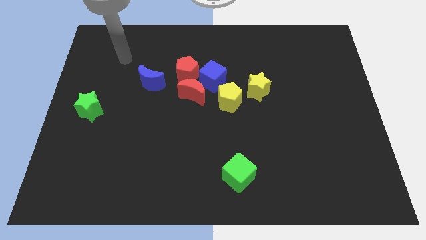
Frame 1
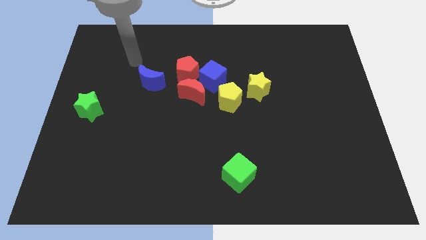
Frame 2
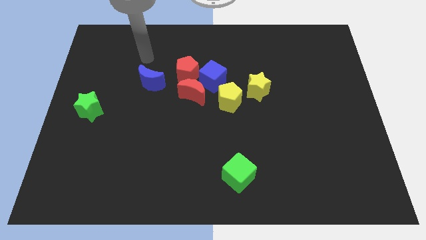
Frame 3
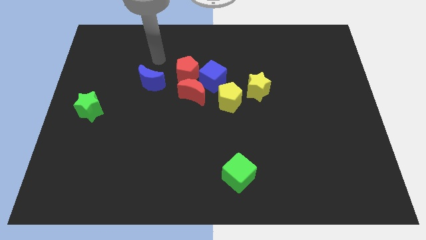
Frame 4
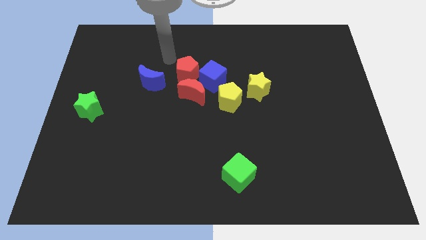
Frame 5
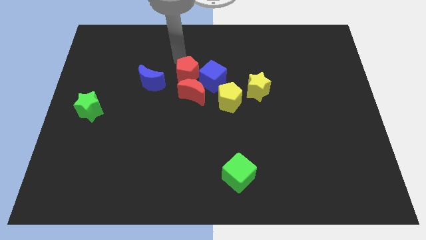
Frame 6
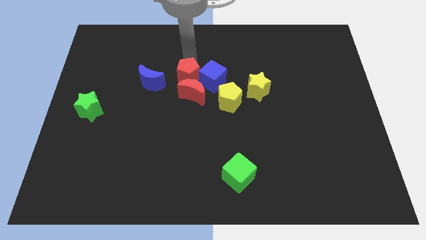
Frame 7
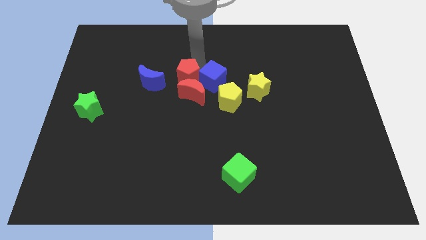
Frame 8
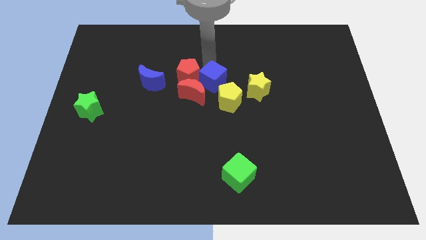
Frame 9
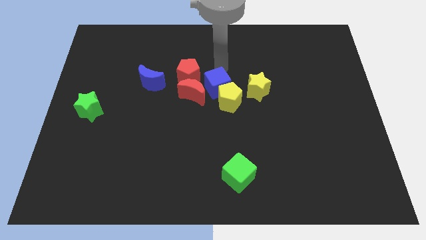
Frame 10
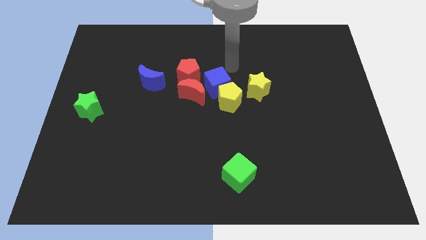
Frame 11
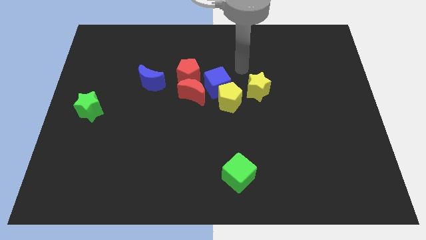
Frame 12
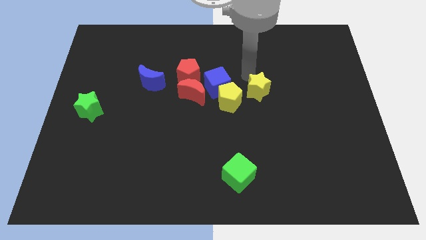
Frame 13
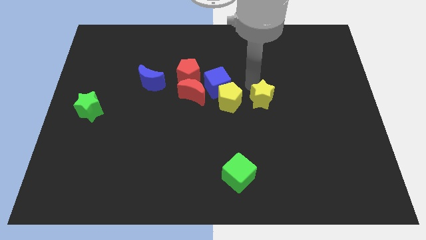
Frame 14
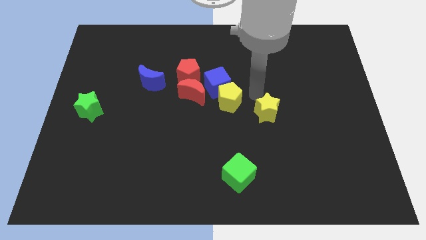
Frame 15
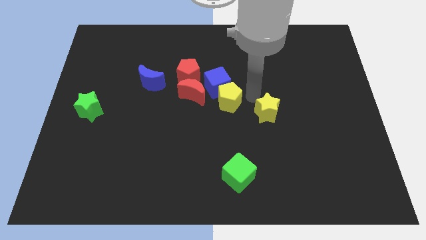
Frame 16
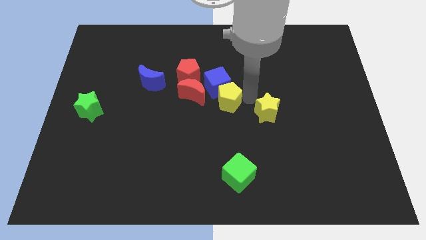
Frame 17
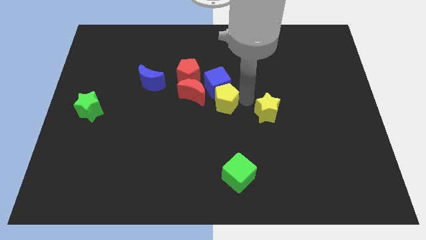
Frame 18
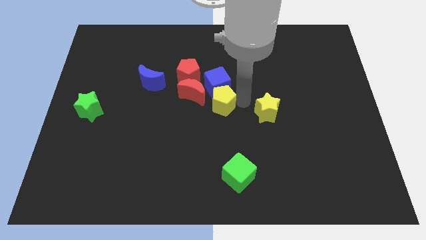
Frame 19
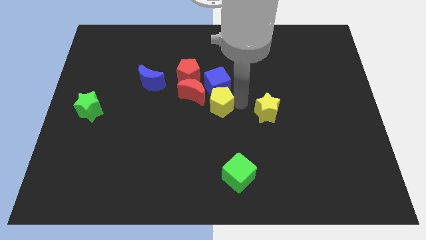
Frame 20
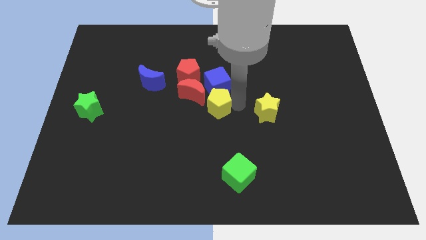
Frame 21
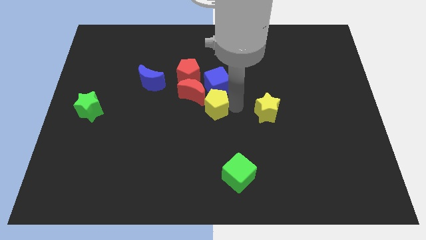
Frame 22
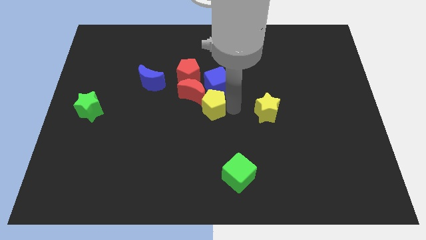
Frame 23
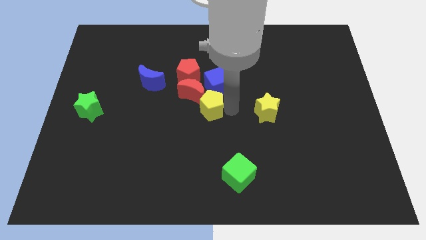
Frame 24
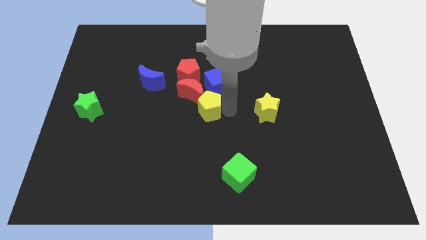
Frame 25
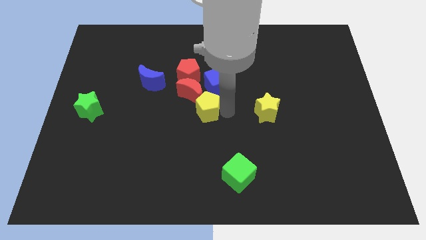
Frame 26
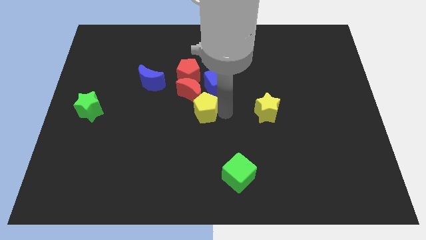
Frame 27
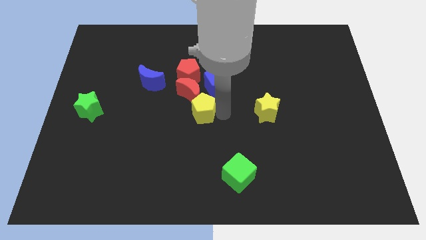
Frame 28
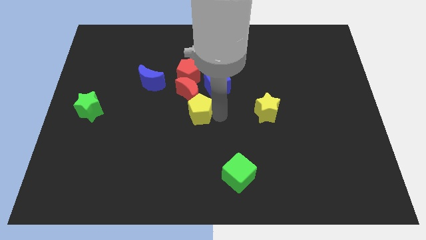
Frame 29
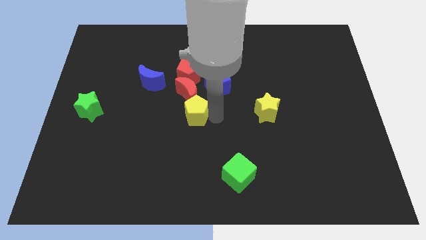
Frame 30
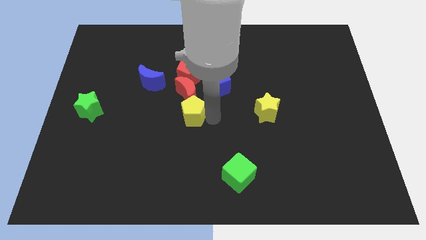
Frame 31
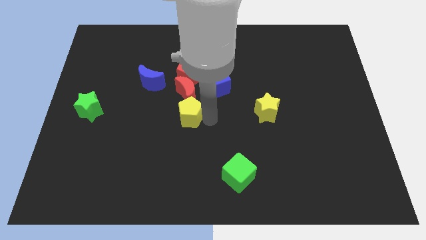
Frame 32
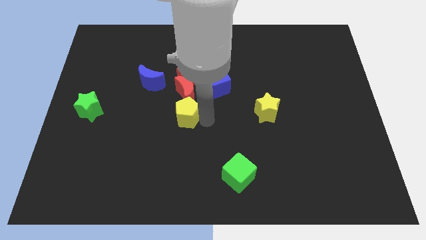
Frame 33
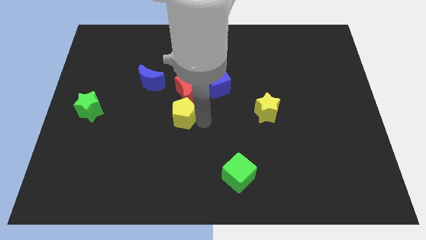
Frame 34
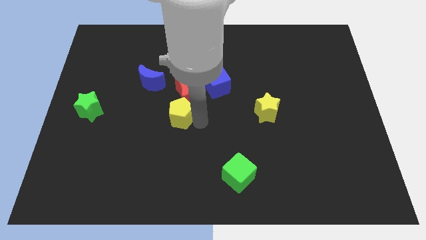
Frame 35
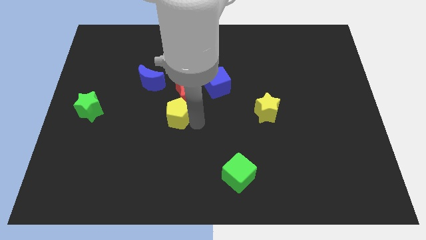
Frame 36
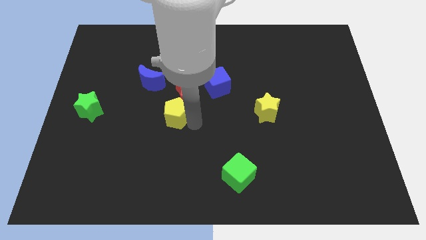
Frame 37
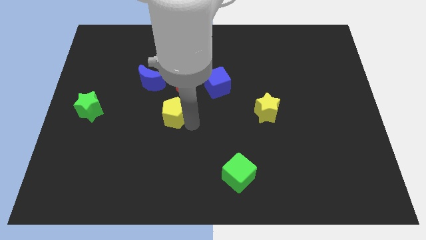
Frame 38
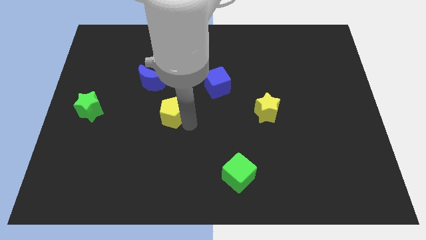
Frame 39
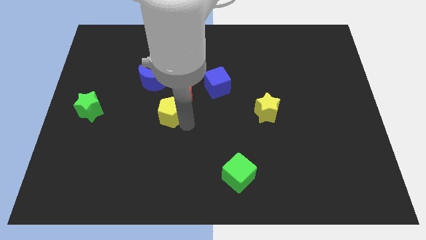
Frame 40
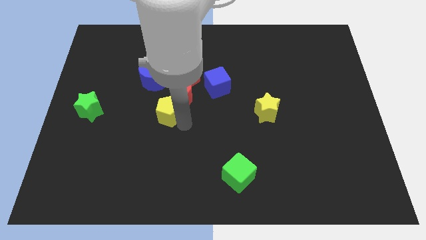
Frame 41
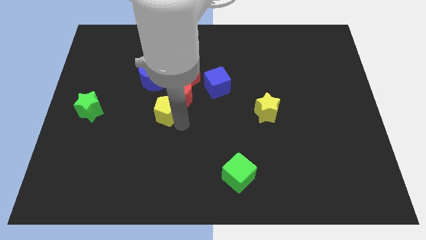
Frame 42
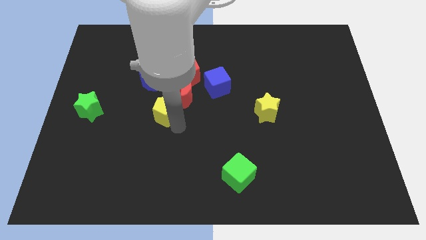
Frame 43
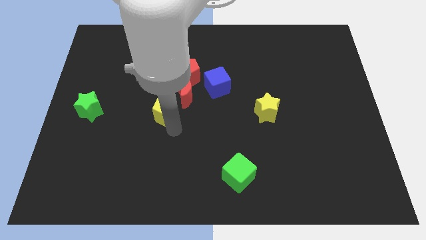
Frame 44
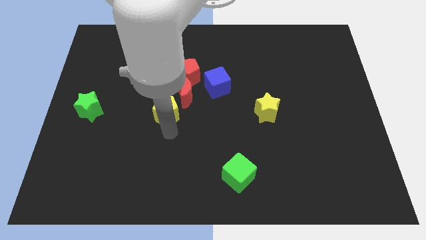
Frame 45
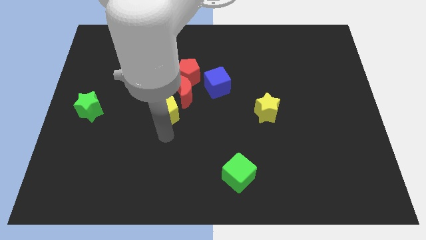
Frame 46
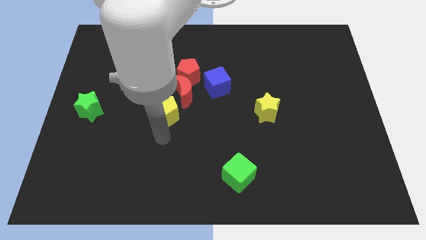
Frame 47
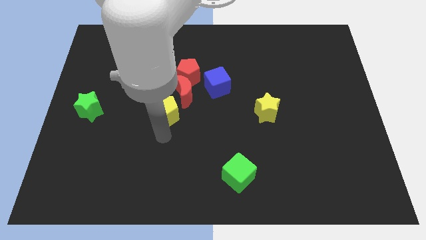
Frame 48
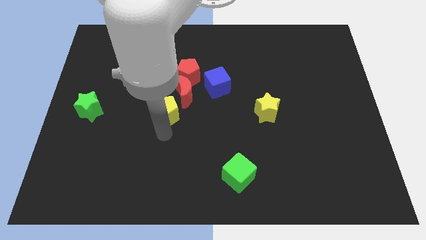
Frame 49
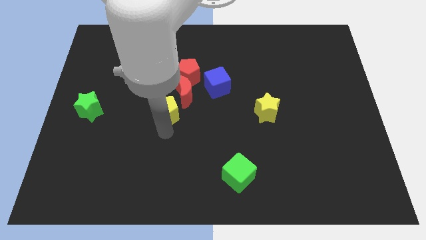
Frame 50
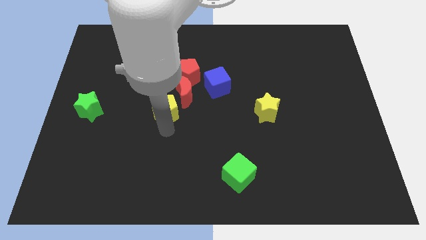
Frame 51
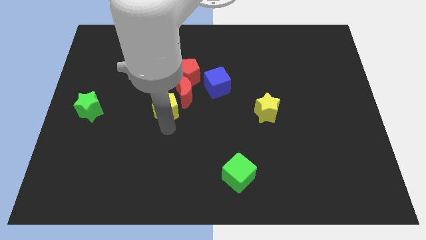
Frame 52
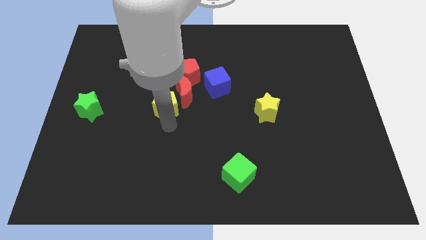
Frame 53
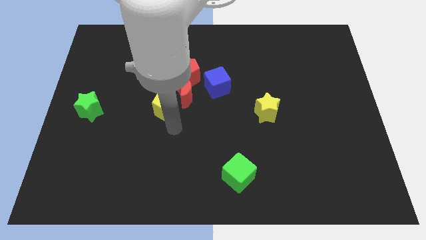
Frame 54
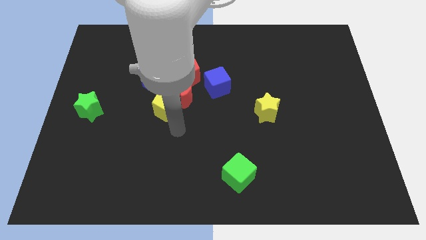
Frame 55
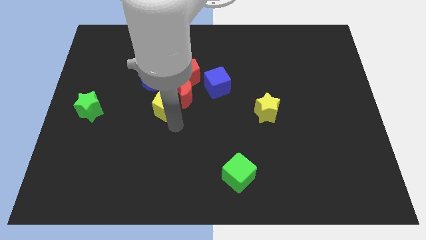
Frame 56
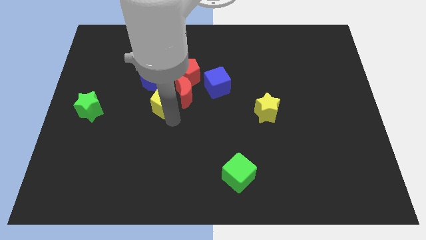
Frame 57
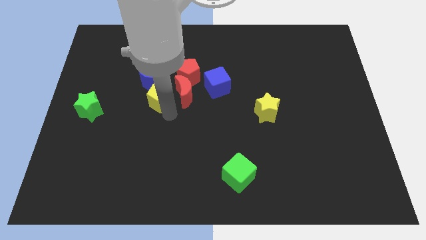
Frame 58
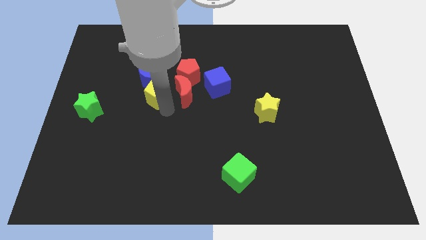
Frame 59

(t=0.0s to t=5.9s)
put the yellow pentagon next to the blue moon

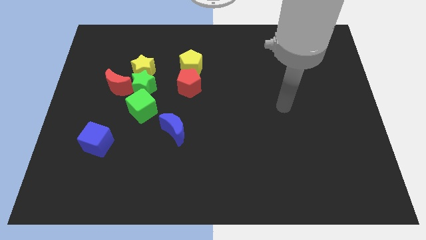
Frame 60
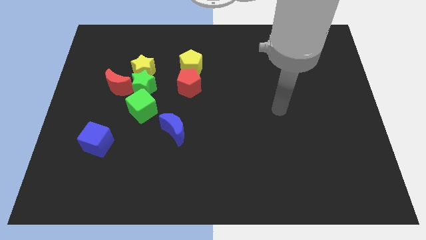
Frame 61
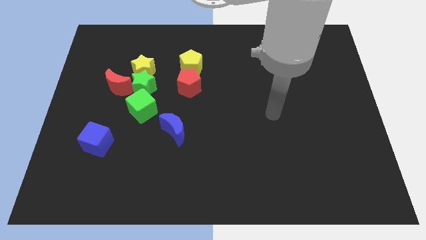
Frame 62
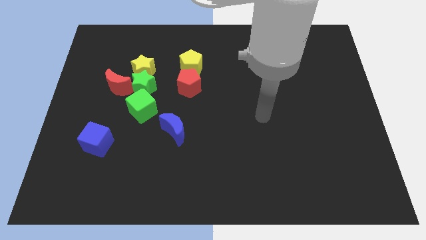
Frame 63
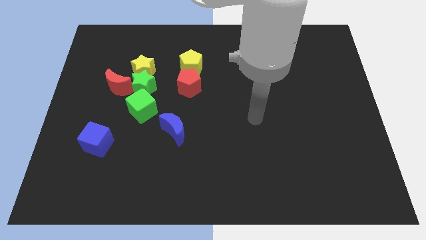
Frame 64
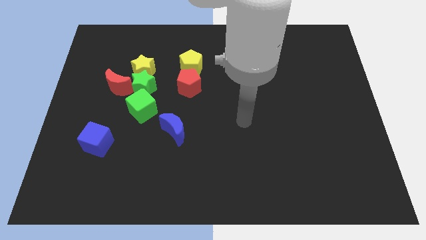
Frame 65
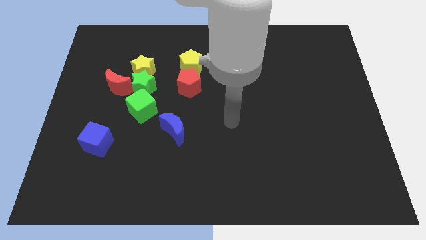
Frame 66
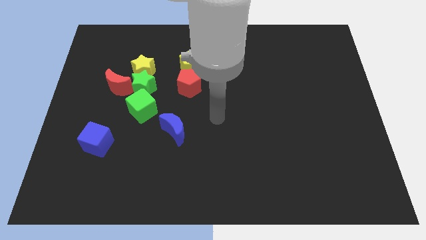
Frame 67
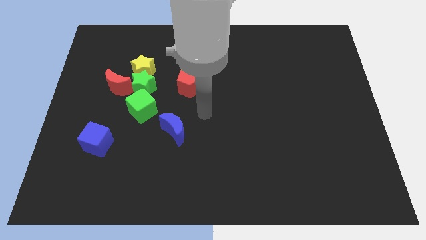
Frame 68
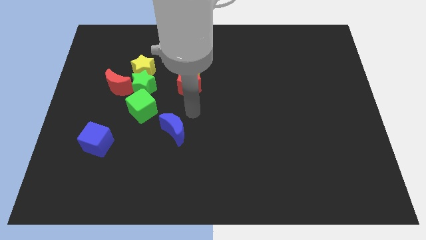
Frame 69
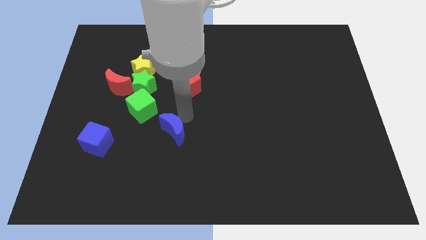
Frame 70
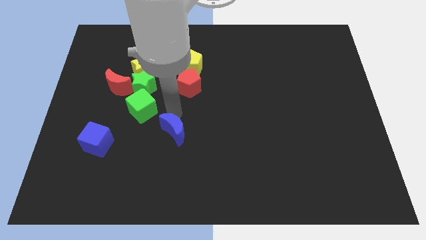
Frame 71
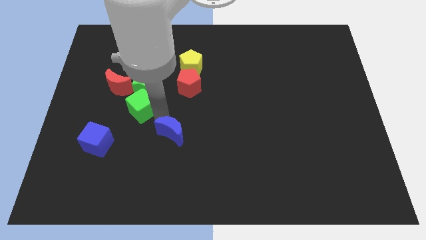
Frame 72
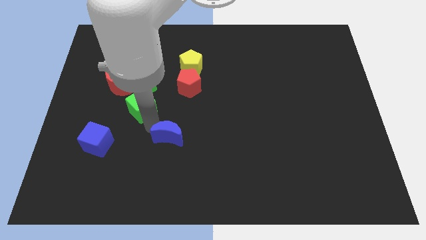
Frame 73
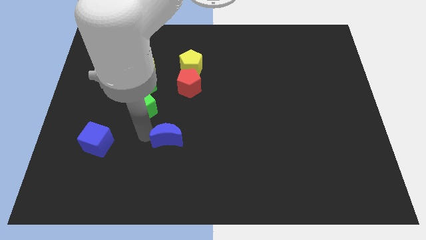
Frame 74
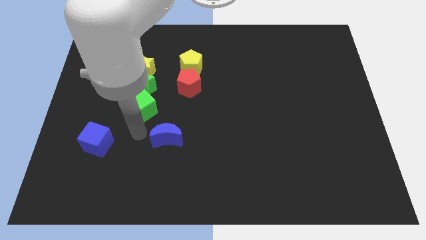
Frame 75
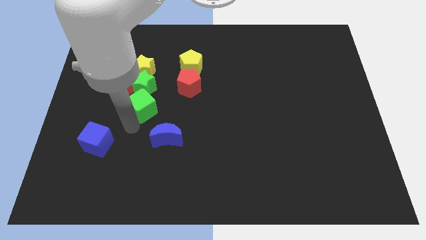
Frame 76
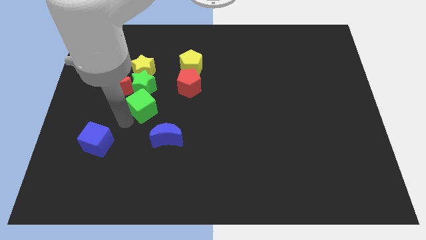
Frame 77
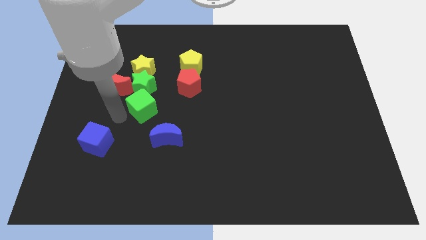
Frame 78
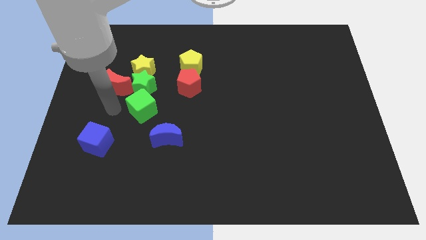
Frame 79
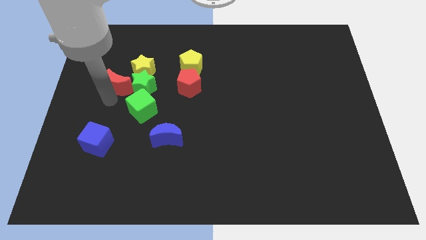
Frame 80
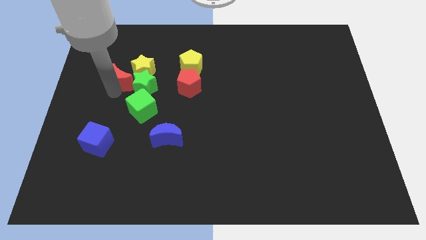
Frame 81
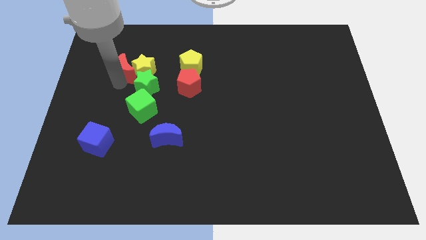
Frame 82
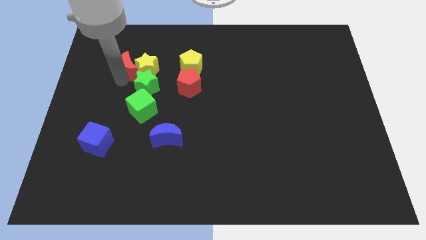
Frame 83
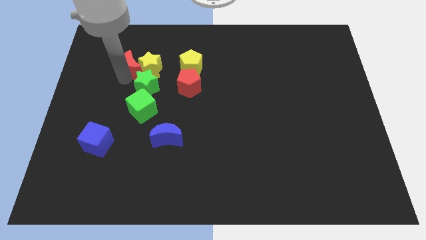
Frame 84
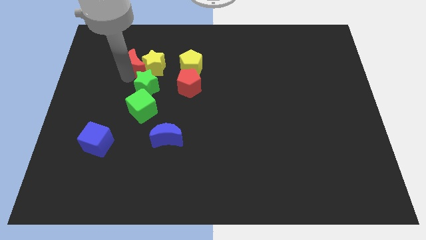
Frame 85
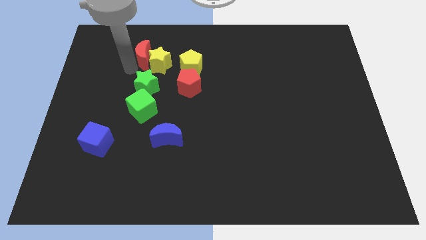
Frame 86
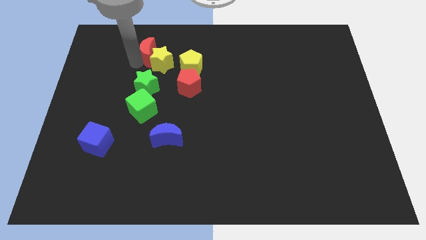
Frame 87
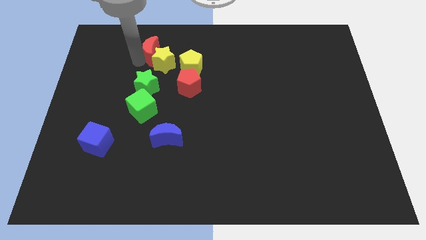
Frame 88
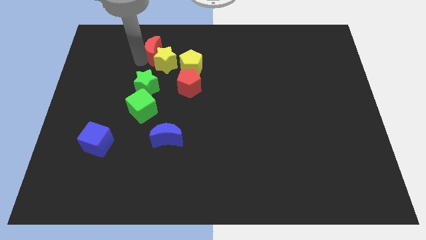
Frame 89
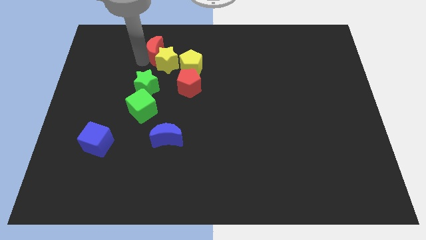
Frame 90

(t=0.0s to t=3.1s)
push the yellow star towards the yellow pentagon
